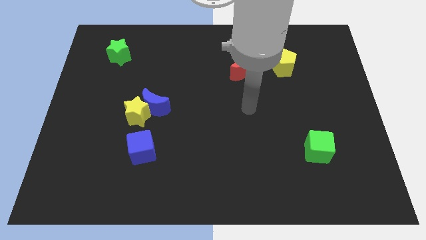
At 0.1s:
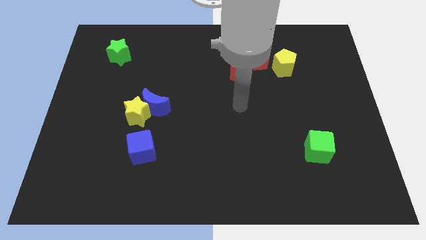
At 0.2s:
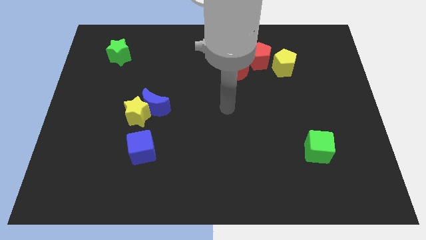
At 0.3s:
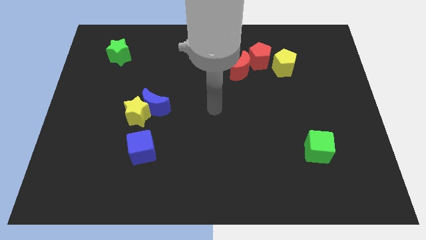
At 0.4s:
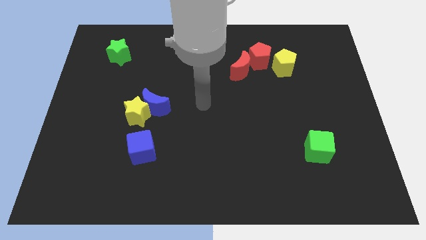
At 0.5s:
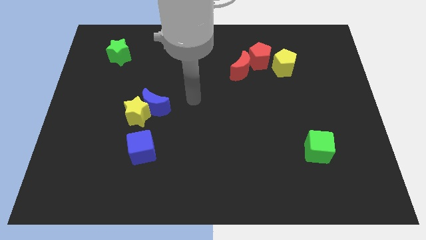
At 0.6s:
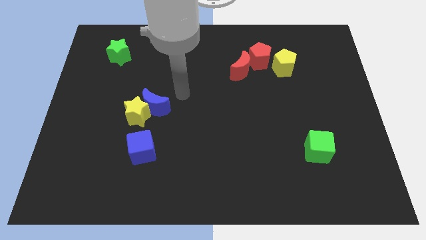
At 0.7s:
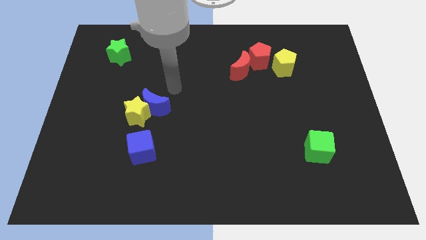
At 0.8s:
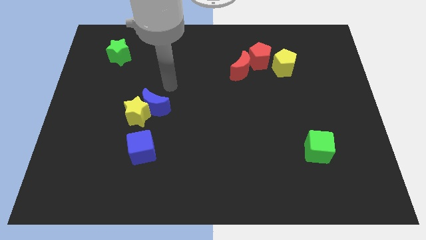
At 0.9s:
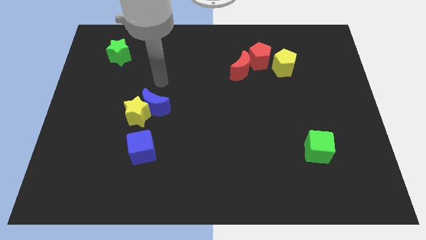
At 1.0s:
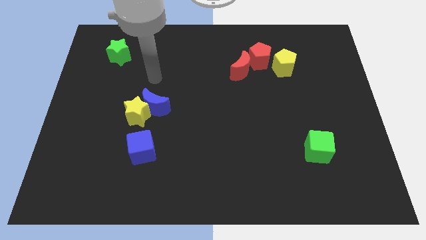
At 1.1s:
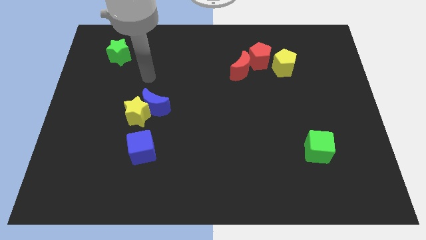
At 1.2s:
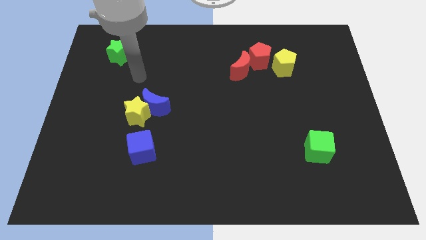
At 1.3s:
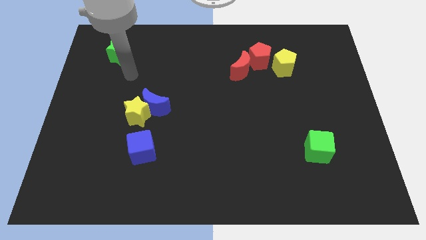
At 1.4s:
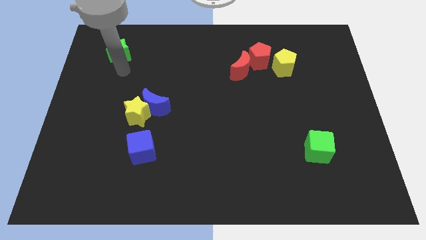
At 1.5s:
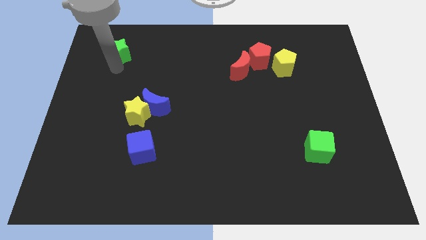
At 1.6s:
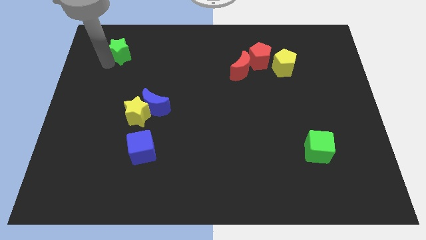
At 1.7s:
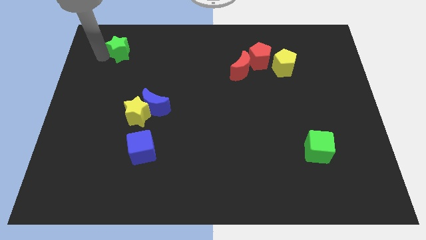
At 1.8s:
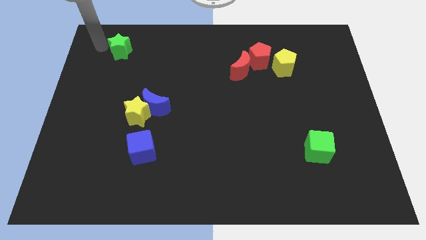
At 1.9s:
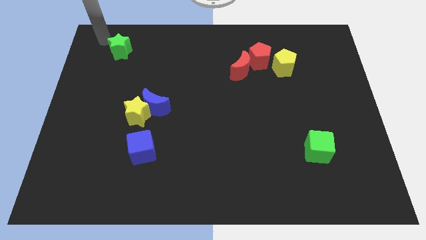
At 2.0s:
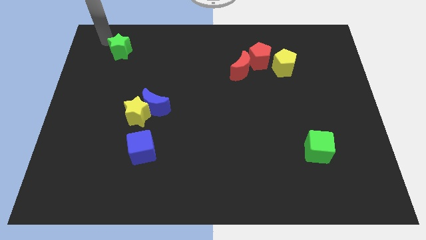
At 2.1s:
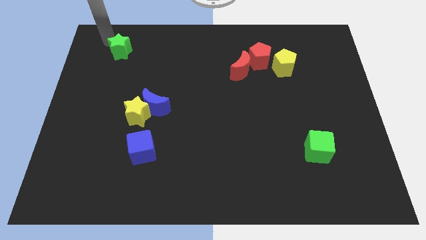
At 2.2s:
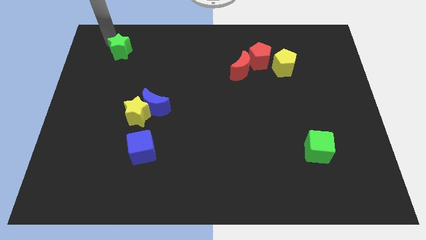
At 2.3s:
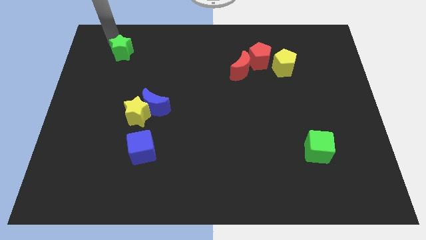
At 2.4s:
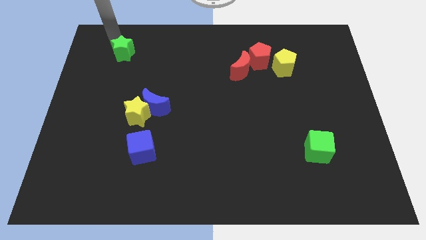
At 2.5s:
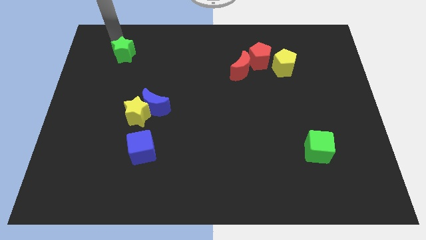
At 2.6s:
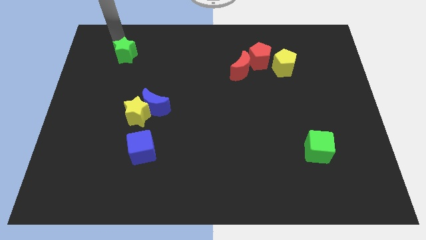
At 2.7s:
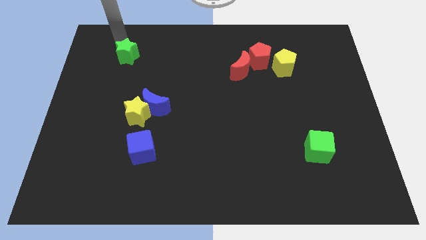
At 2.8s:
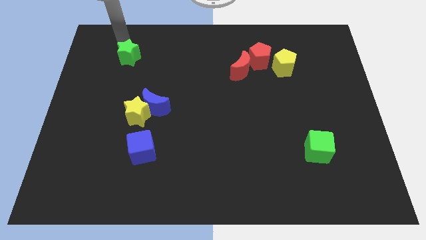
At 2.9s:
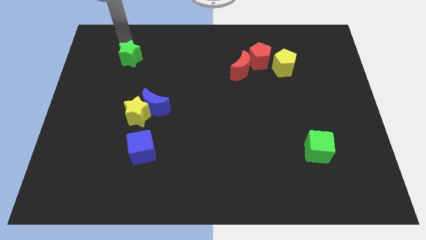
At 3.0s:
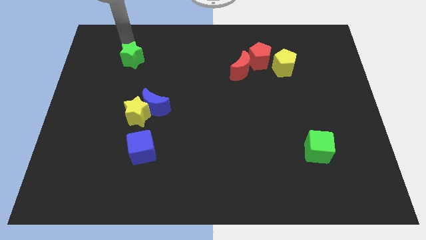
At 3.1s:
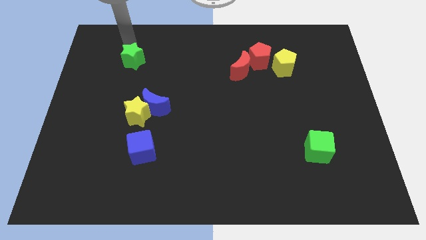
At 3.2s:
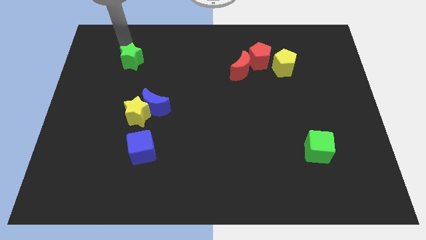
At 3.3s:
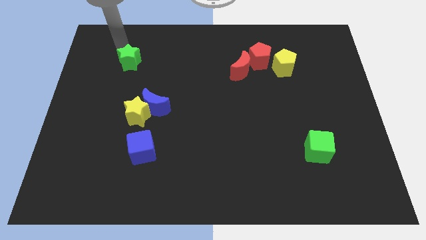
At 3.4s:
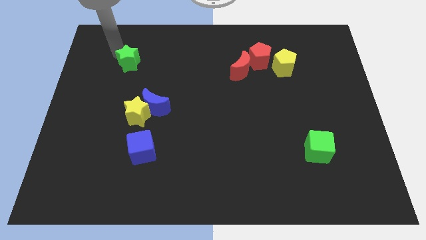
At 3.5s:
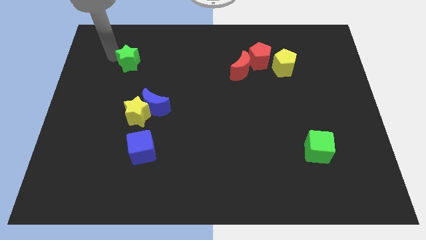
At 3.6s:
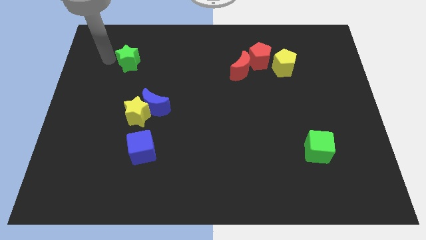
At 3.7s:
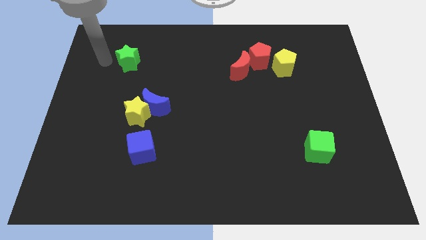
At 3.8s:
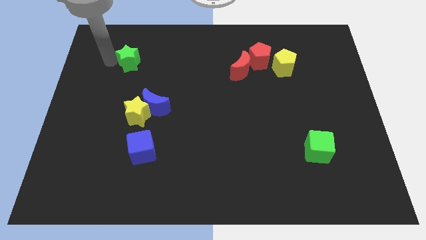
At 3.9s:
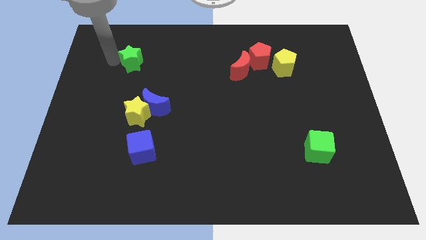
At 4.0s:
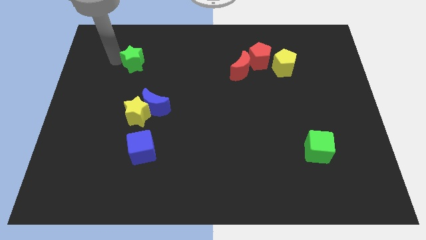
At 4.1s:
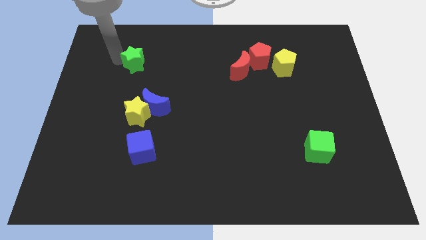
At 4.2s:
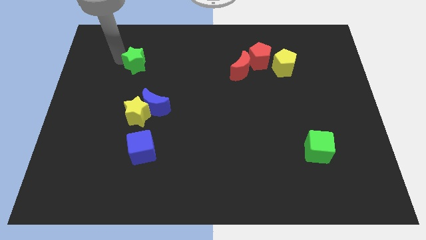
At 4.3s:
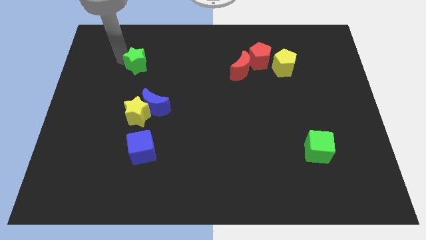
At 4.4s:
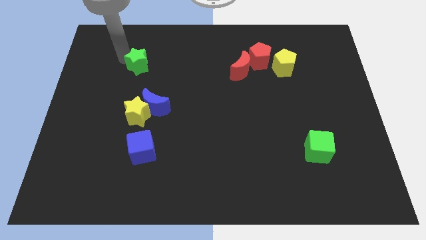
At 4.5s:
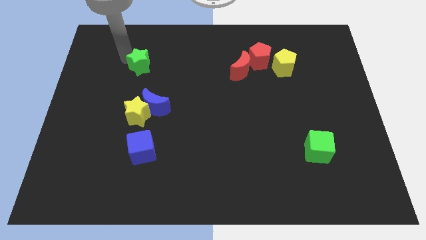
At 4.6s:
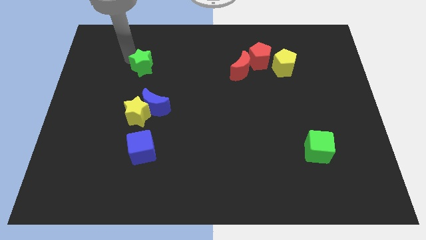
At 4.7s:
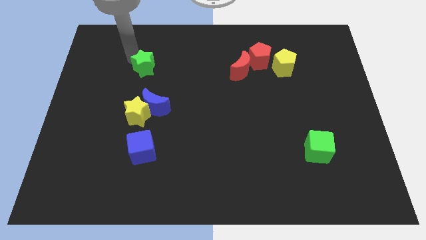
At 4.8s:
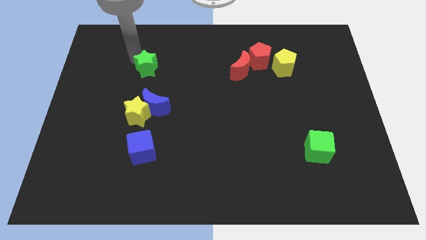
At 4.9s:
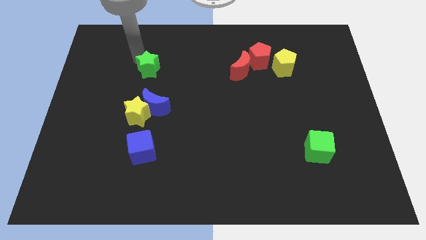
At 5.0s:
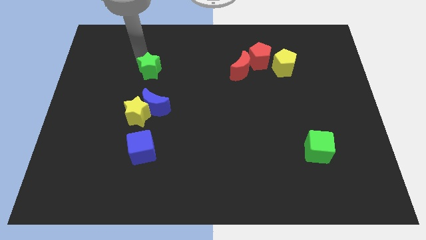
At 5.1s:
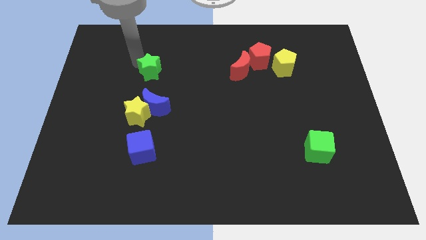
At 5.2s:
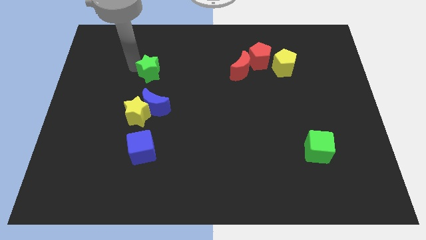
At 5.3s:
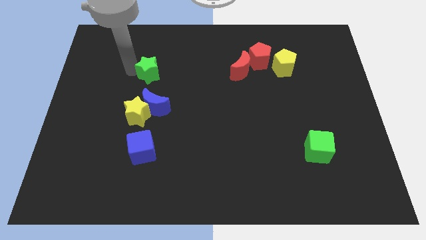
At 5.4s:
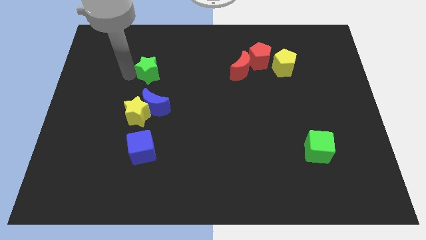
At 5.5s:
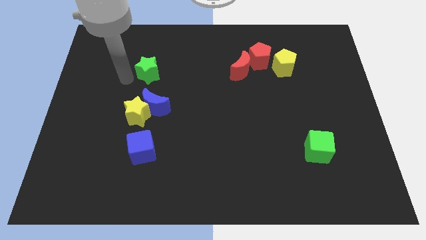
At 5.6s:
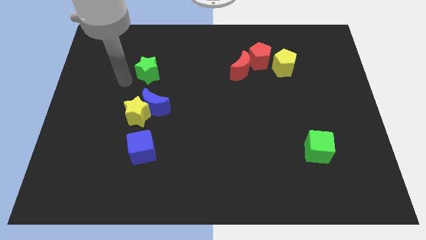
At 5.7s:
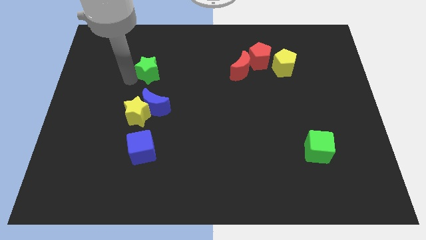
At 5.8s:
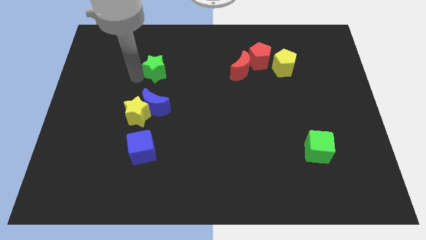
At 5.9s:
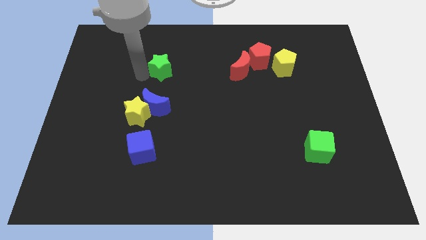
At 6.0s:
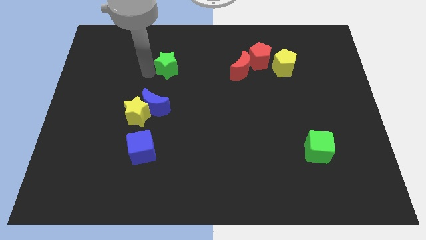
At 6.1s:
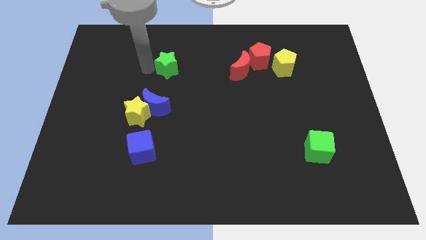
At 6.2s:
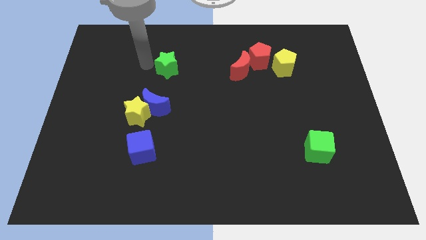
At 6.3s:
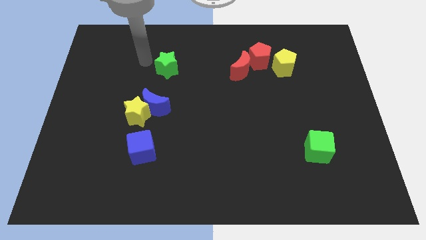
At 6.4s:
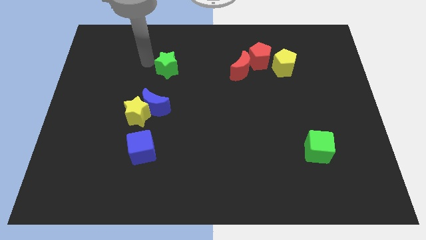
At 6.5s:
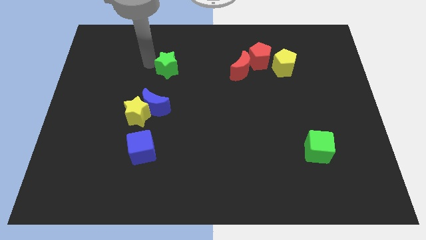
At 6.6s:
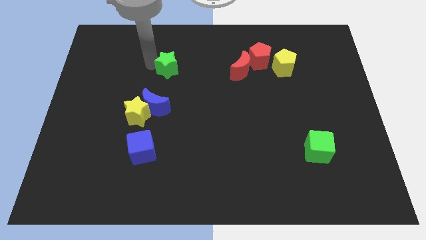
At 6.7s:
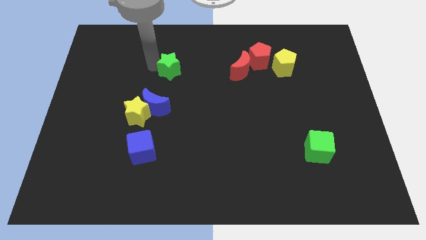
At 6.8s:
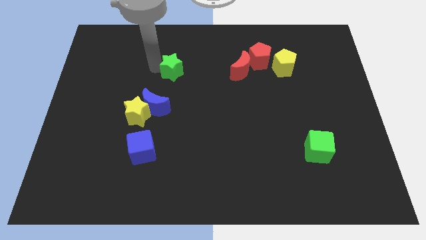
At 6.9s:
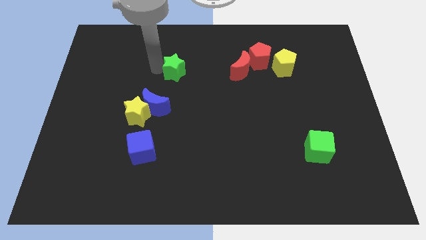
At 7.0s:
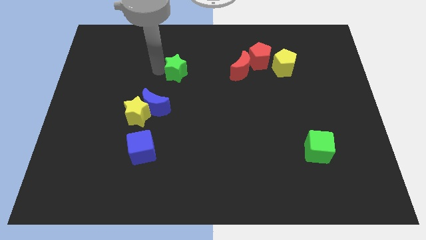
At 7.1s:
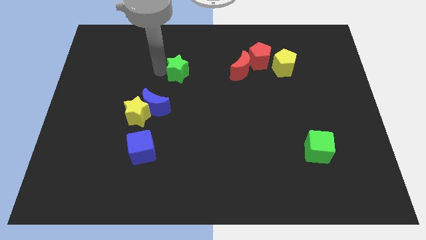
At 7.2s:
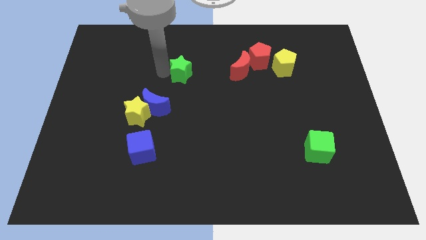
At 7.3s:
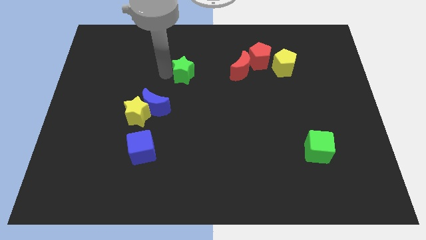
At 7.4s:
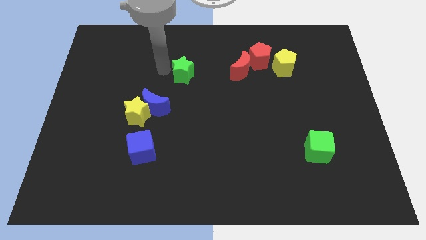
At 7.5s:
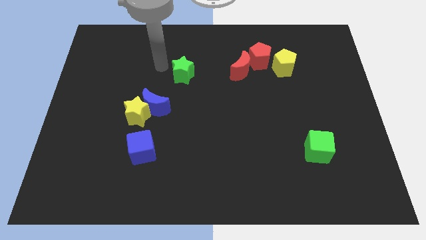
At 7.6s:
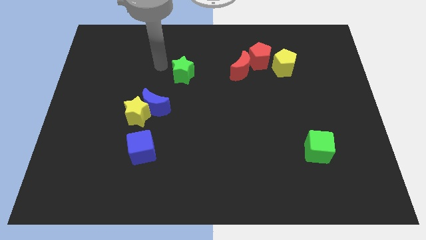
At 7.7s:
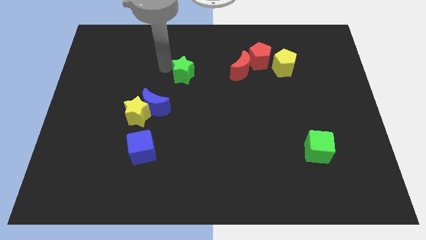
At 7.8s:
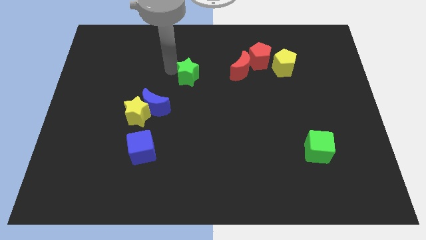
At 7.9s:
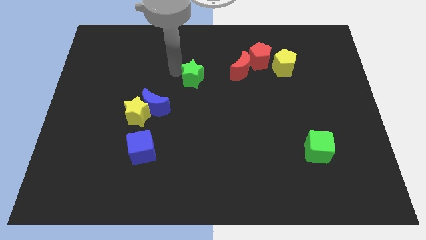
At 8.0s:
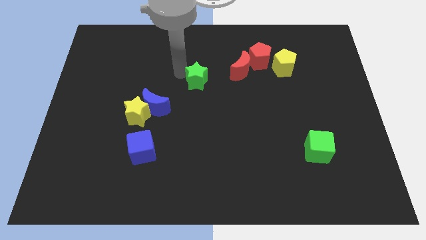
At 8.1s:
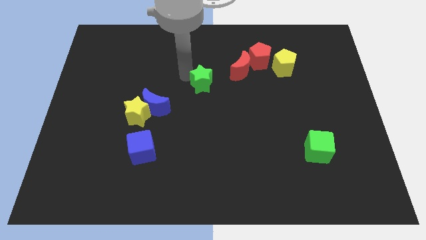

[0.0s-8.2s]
slide the green star to the bottom left of the red moon
